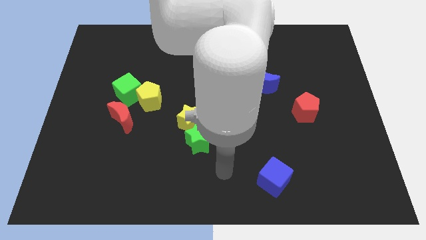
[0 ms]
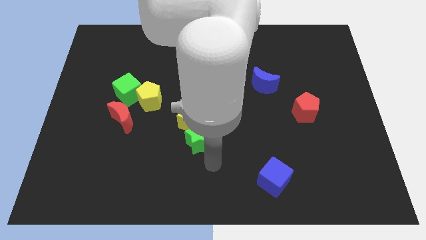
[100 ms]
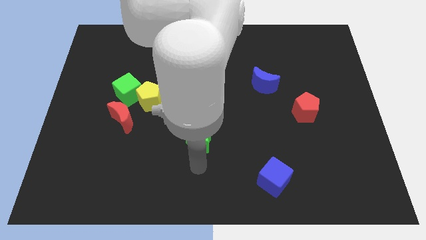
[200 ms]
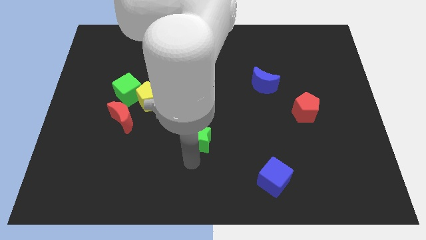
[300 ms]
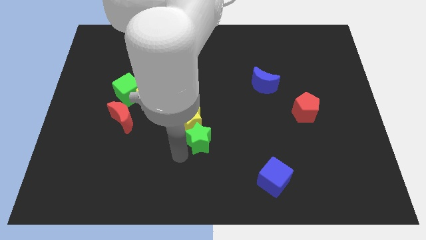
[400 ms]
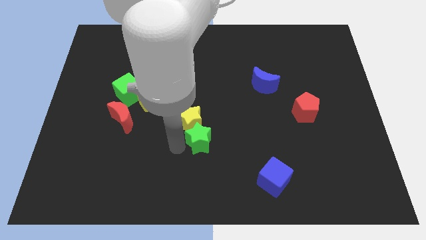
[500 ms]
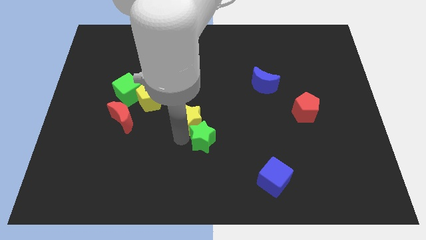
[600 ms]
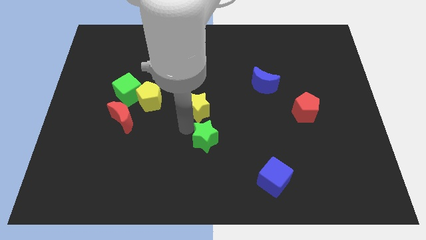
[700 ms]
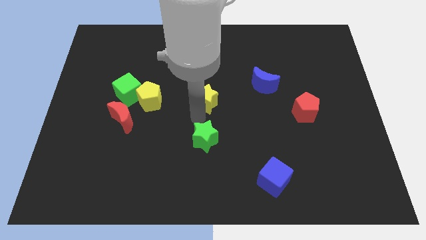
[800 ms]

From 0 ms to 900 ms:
separate the green star from the yellow star

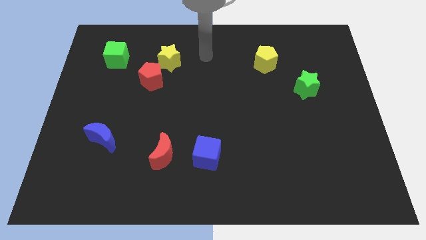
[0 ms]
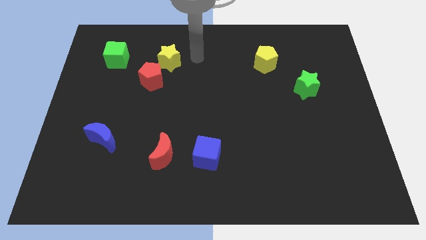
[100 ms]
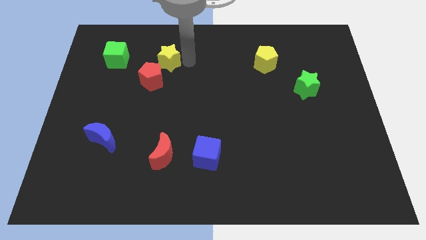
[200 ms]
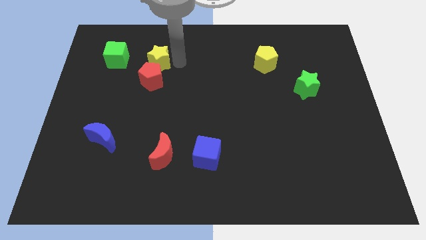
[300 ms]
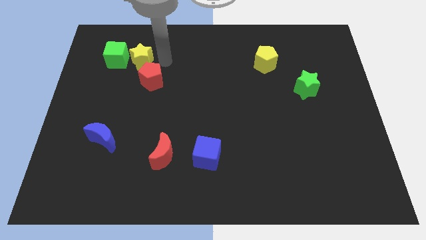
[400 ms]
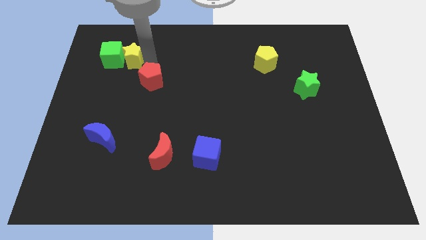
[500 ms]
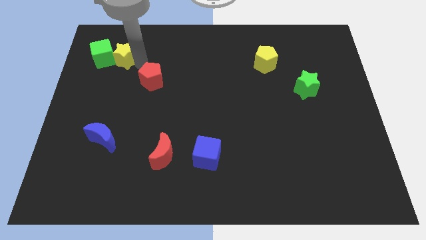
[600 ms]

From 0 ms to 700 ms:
separate the red pentagon from the yellow star

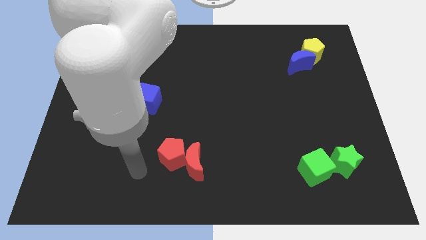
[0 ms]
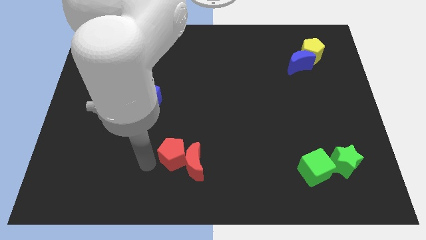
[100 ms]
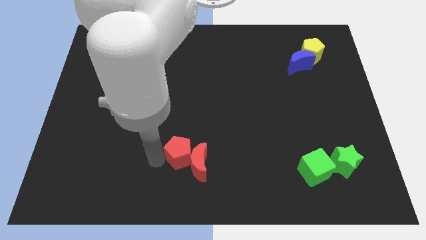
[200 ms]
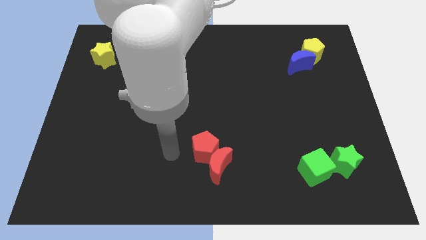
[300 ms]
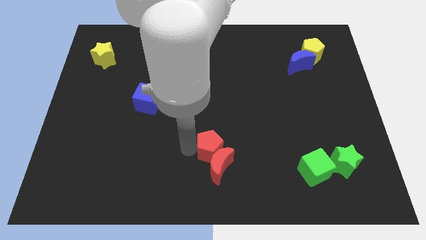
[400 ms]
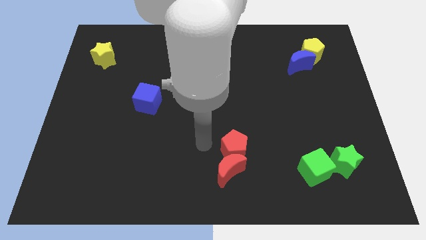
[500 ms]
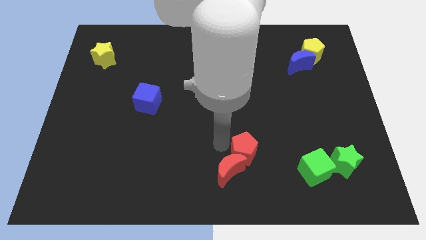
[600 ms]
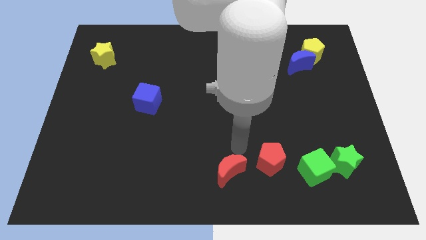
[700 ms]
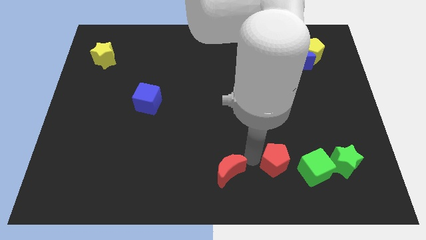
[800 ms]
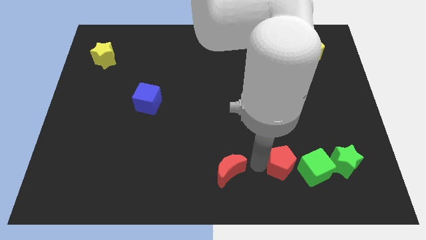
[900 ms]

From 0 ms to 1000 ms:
pull the red moon apart from the red pentagon

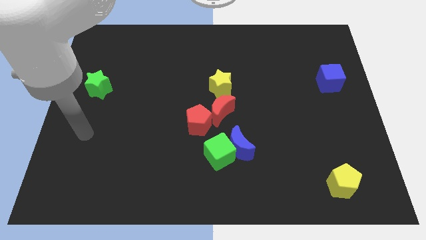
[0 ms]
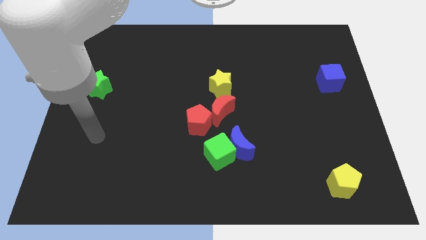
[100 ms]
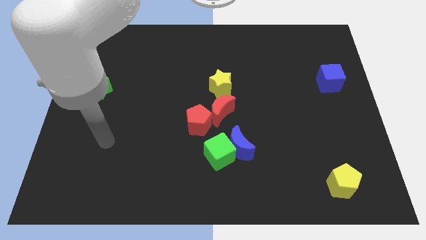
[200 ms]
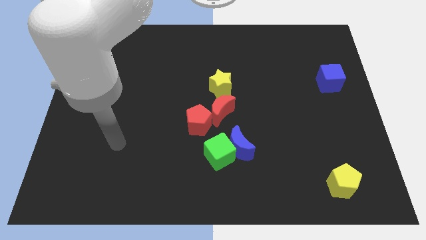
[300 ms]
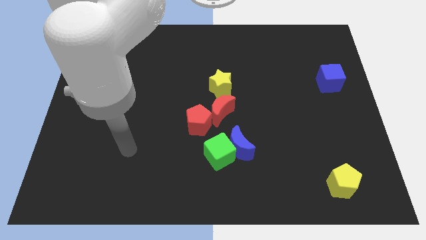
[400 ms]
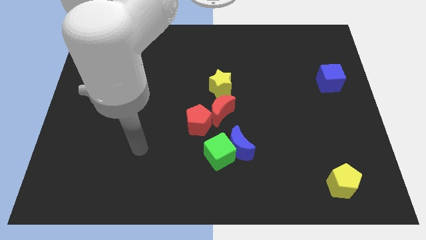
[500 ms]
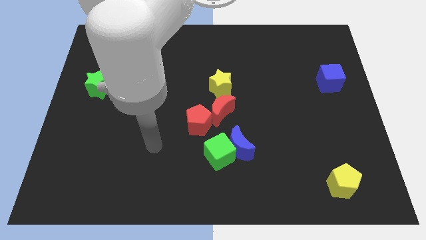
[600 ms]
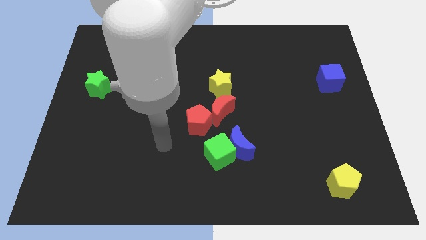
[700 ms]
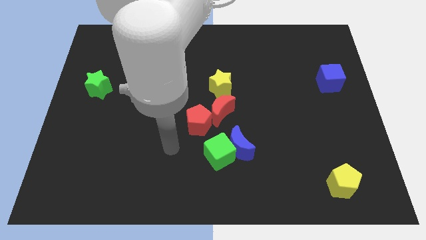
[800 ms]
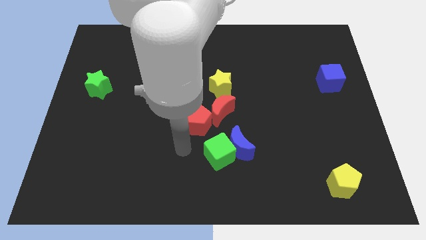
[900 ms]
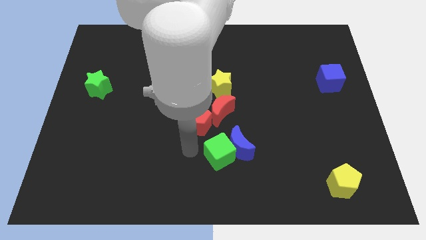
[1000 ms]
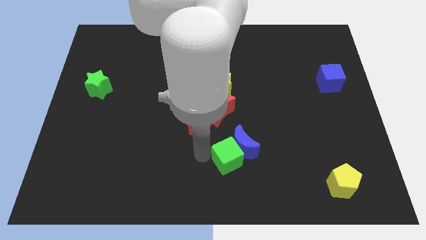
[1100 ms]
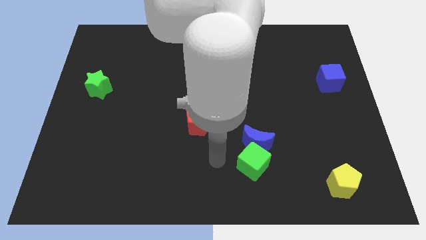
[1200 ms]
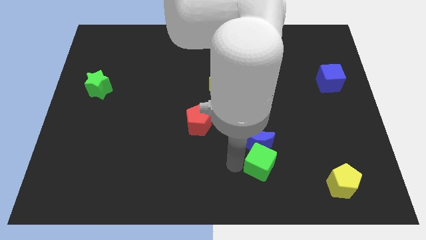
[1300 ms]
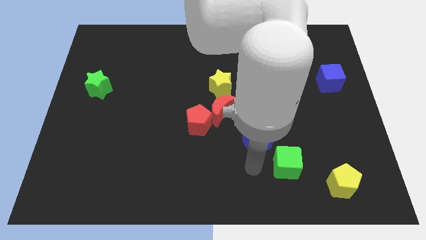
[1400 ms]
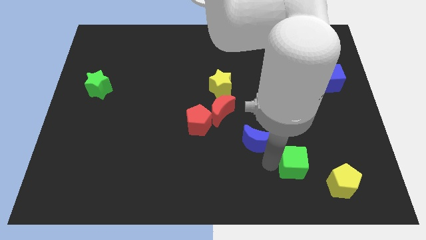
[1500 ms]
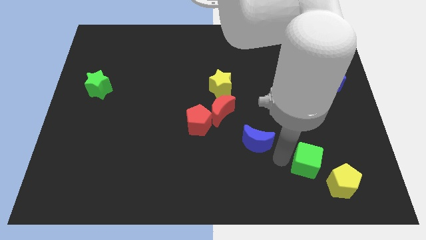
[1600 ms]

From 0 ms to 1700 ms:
separate the blue moon from the green cube

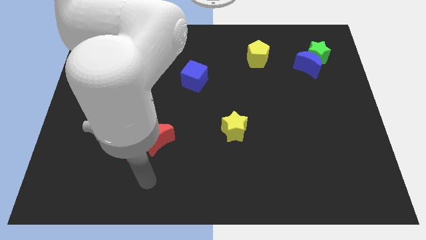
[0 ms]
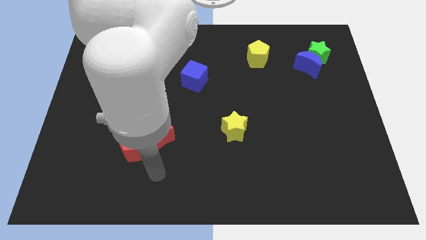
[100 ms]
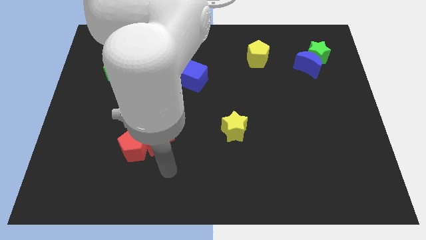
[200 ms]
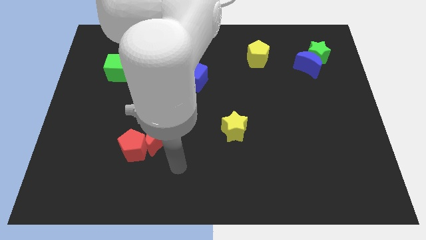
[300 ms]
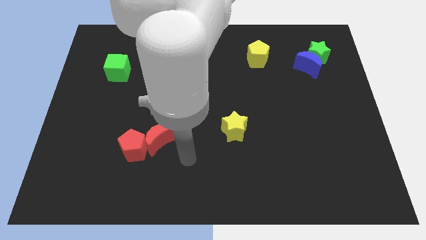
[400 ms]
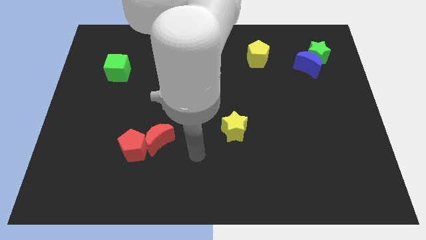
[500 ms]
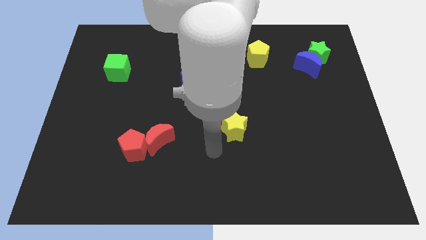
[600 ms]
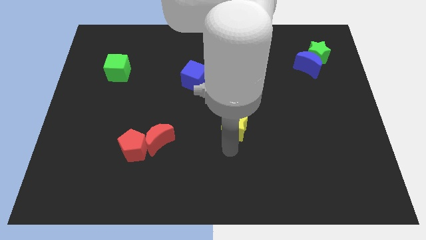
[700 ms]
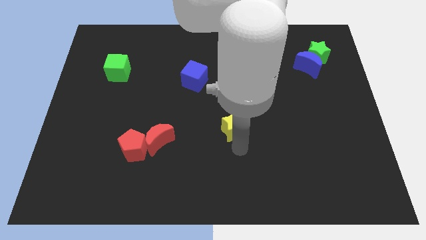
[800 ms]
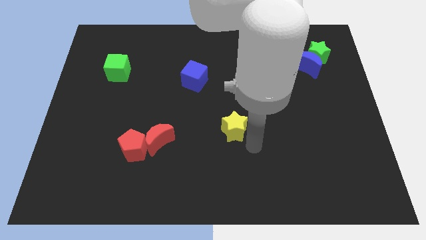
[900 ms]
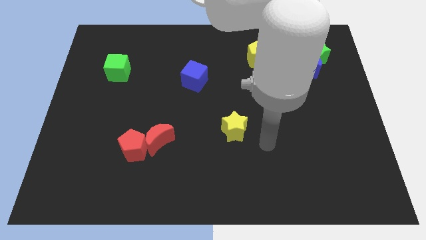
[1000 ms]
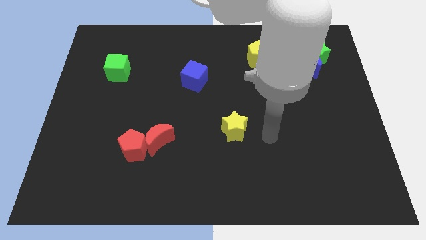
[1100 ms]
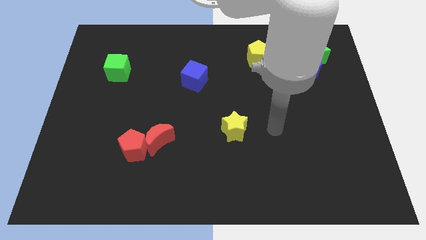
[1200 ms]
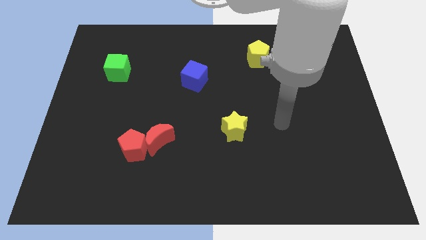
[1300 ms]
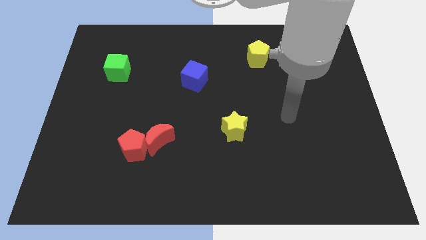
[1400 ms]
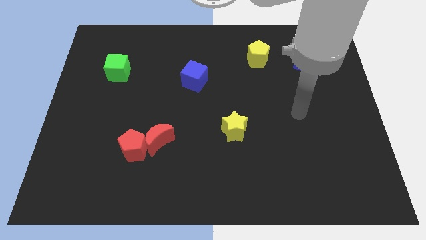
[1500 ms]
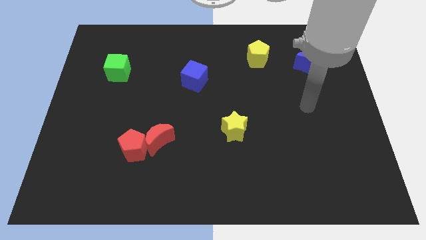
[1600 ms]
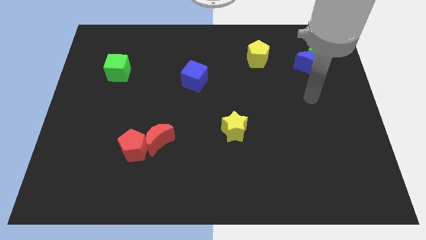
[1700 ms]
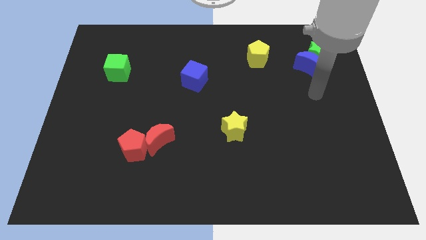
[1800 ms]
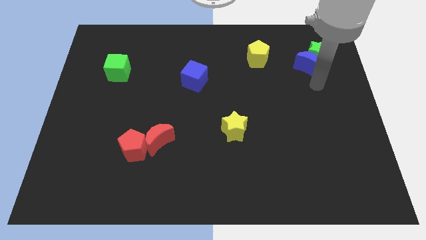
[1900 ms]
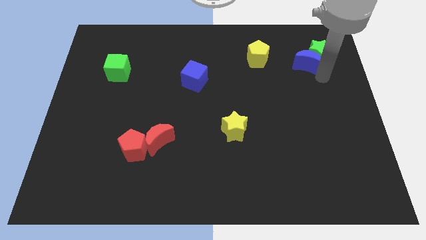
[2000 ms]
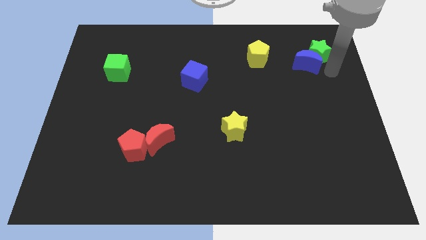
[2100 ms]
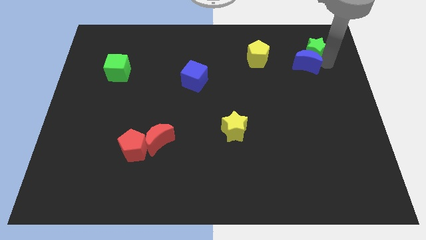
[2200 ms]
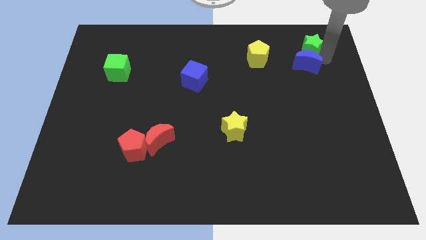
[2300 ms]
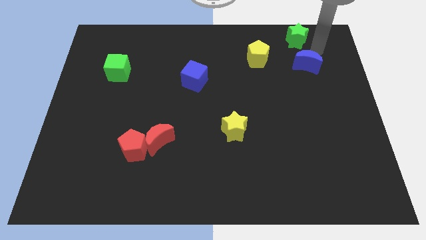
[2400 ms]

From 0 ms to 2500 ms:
move the blue moon away from the green star

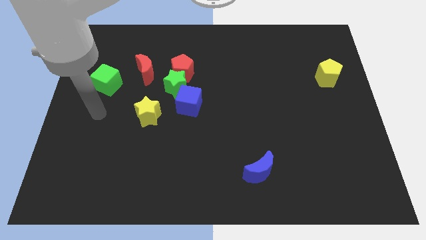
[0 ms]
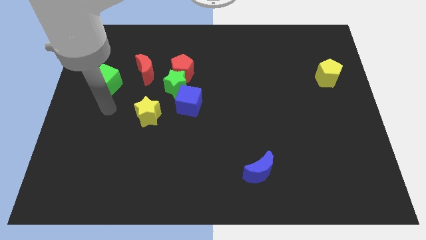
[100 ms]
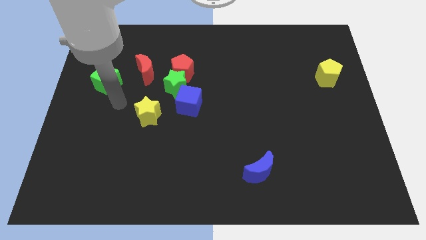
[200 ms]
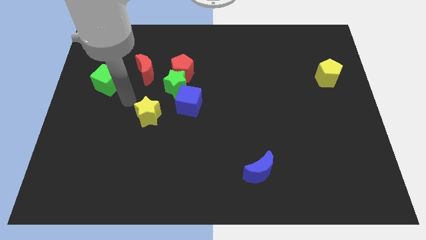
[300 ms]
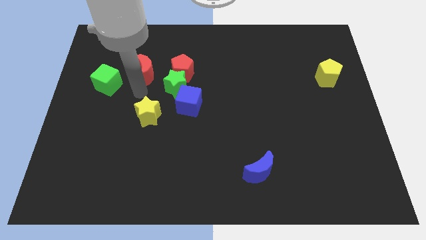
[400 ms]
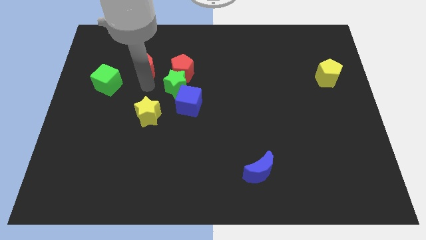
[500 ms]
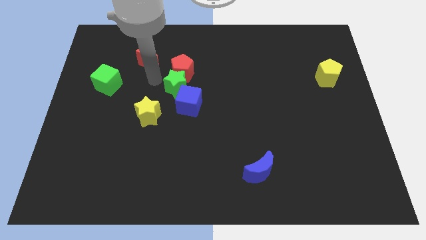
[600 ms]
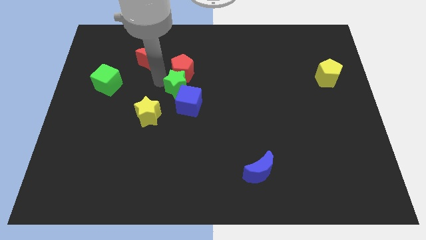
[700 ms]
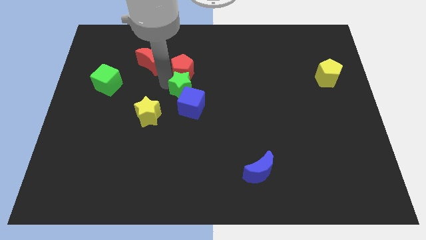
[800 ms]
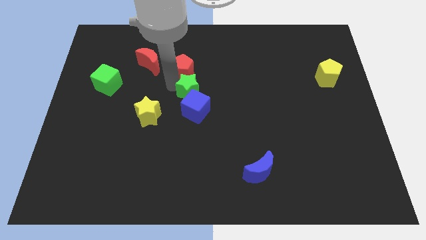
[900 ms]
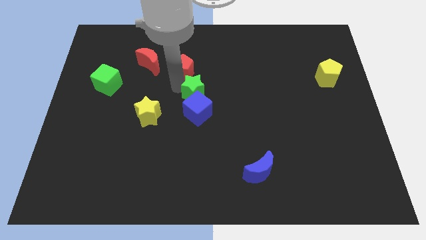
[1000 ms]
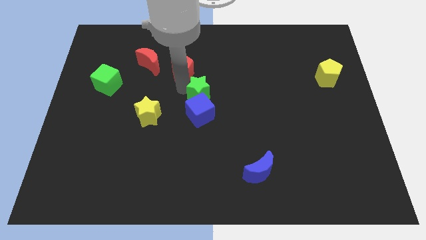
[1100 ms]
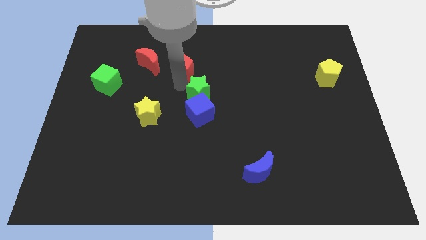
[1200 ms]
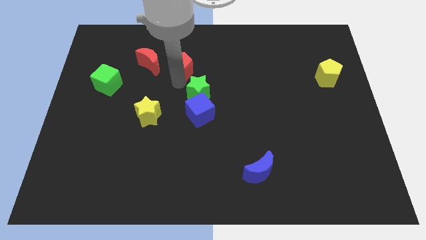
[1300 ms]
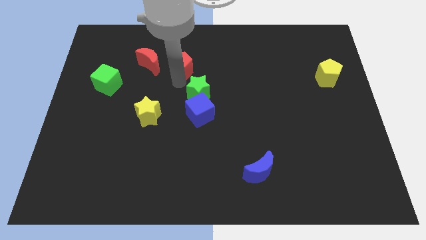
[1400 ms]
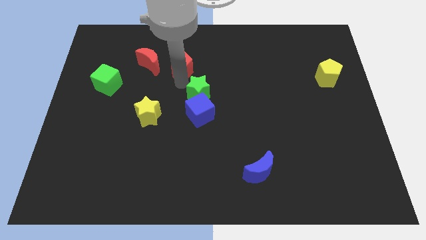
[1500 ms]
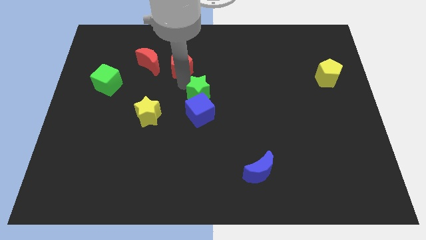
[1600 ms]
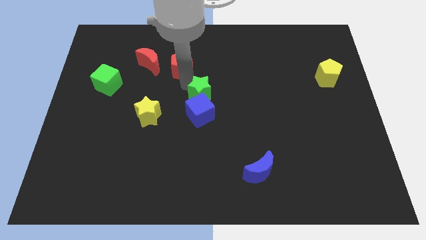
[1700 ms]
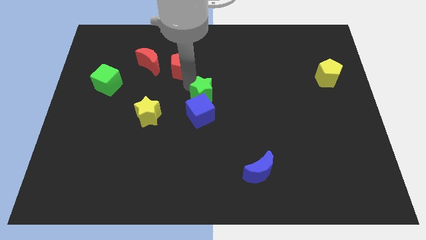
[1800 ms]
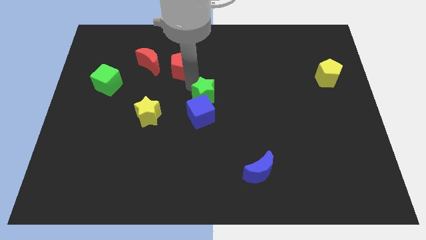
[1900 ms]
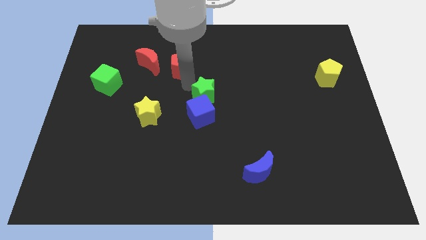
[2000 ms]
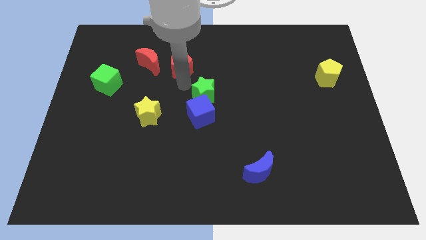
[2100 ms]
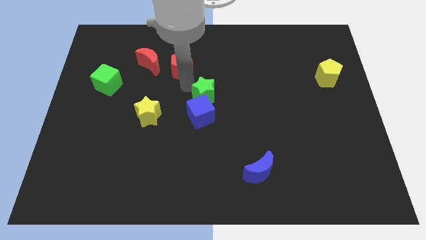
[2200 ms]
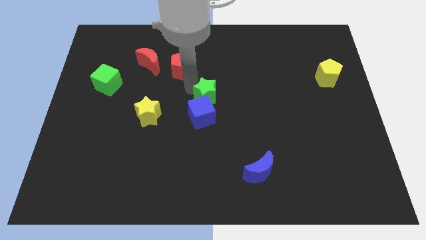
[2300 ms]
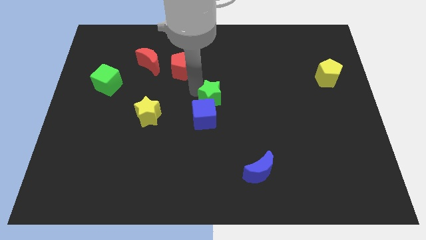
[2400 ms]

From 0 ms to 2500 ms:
separate the green star from the group

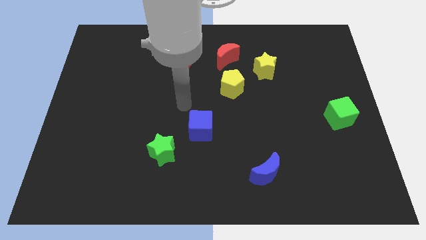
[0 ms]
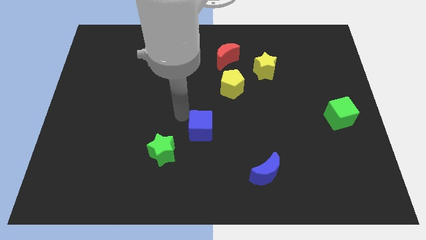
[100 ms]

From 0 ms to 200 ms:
move the blue cube away from the green star

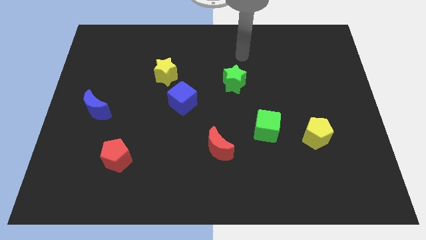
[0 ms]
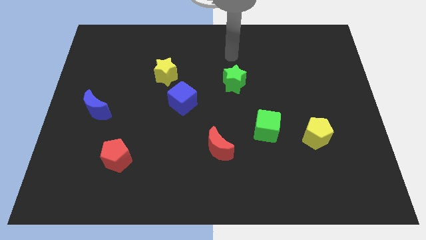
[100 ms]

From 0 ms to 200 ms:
separate the blue cube from the yellow star
